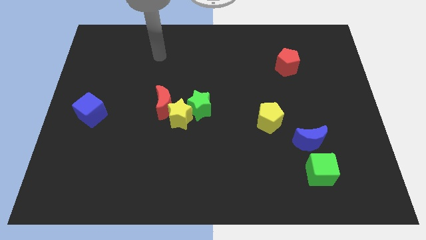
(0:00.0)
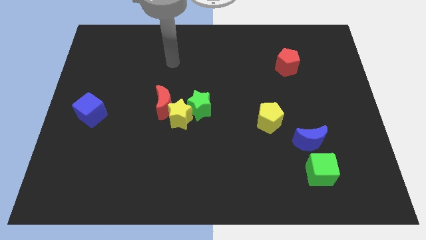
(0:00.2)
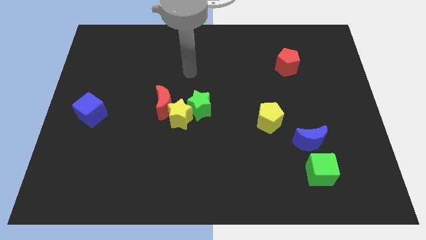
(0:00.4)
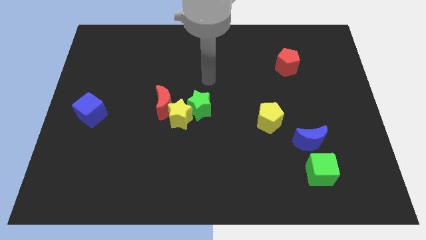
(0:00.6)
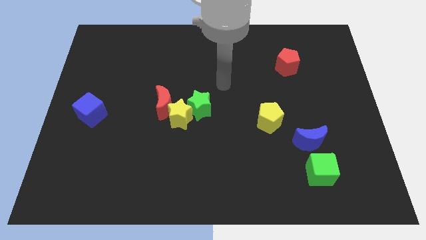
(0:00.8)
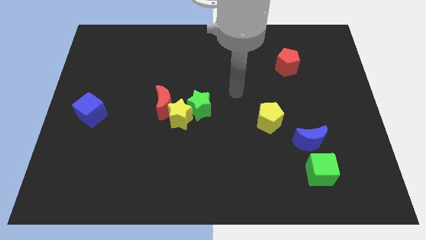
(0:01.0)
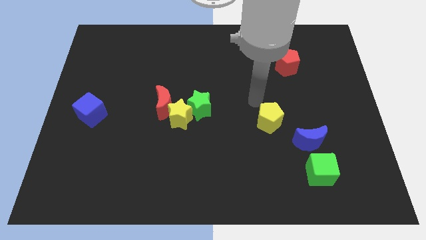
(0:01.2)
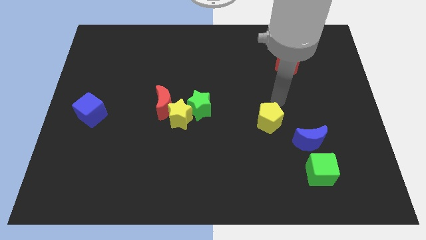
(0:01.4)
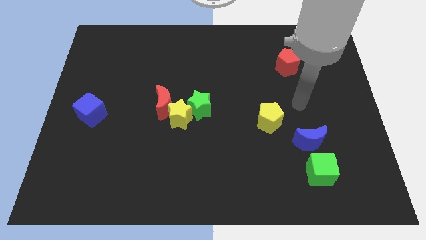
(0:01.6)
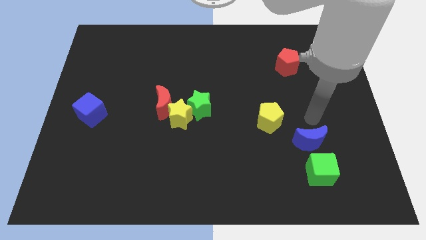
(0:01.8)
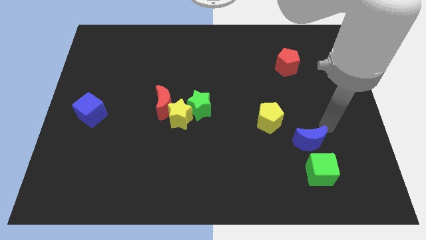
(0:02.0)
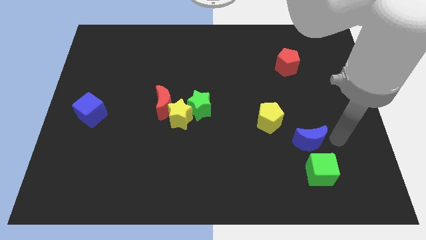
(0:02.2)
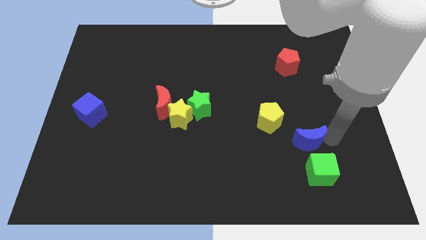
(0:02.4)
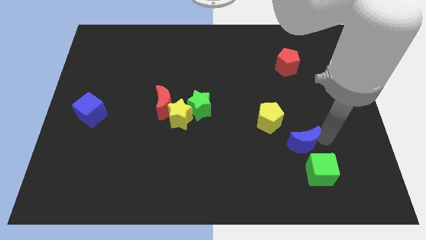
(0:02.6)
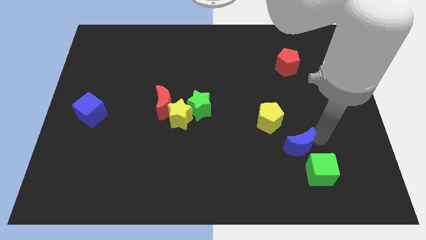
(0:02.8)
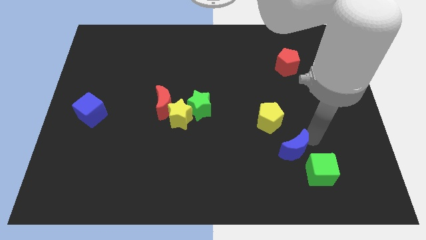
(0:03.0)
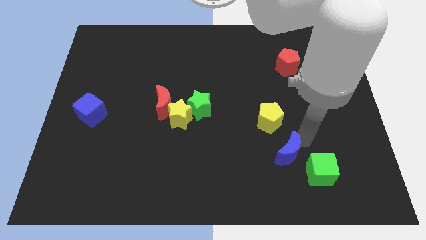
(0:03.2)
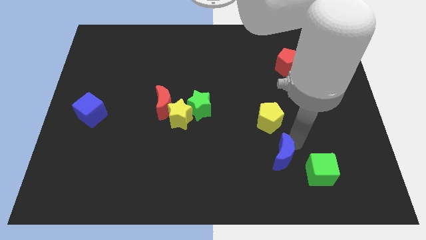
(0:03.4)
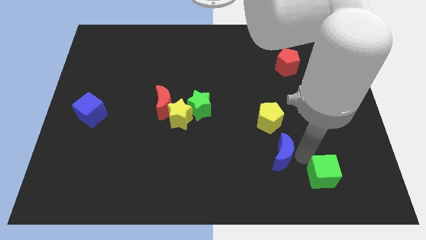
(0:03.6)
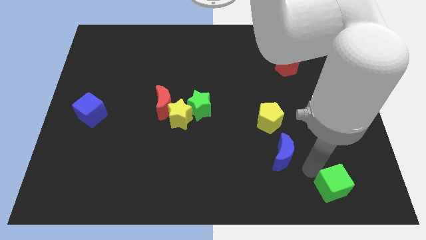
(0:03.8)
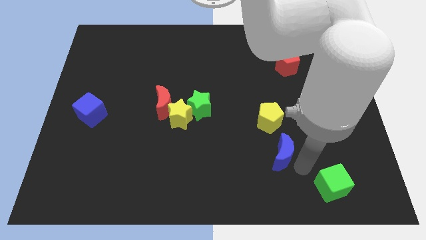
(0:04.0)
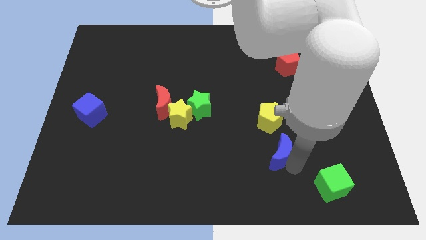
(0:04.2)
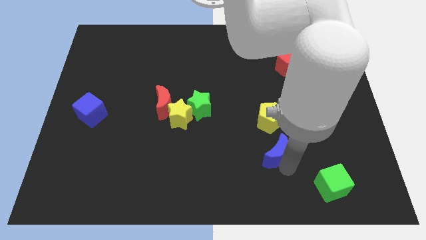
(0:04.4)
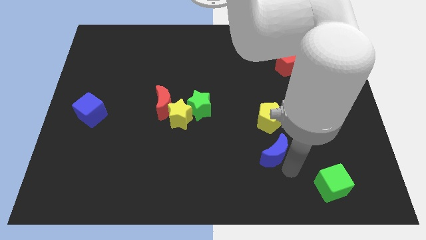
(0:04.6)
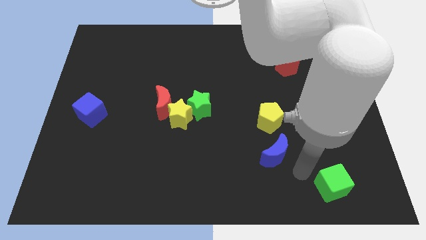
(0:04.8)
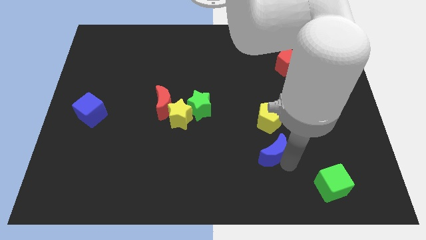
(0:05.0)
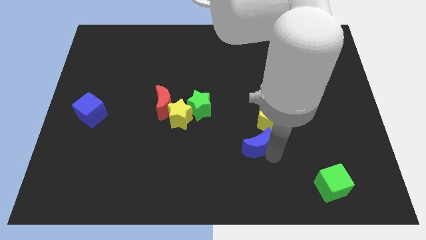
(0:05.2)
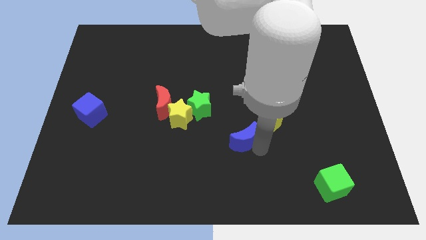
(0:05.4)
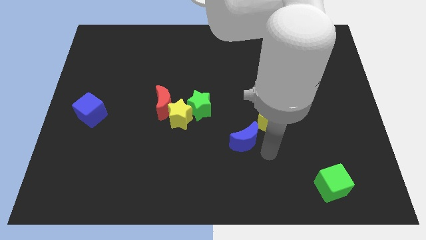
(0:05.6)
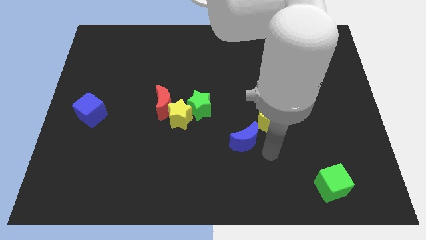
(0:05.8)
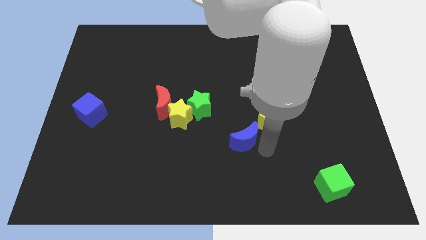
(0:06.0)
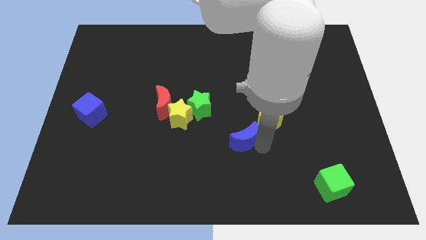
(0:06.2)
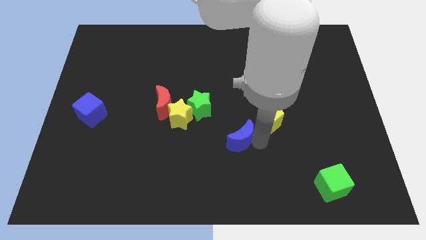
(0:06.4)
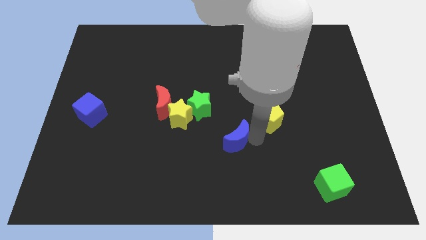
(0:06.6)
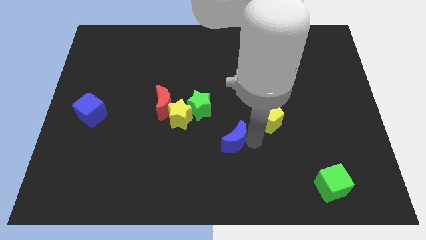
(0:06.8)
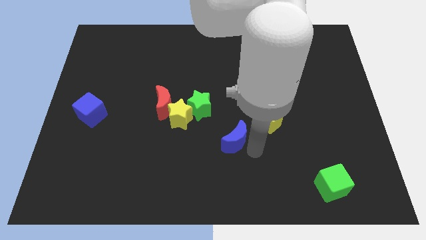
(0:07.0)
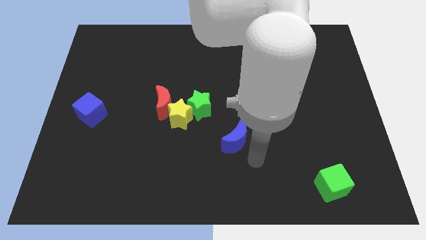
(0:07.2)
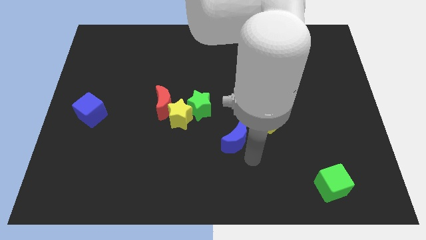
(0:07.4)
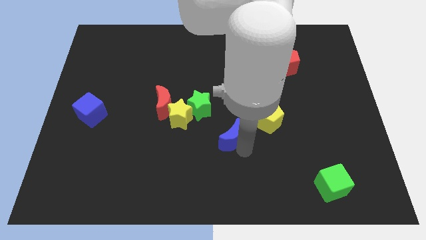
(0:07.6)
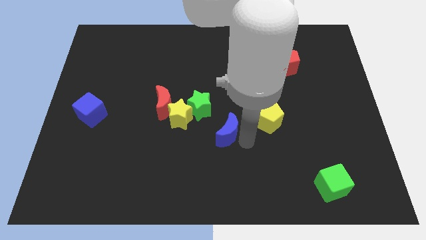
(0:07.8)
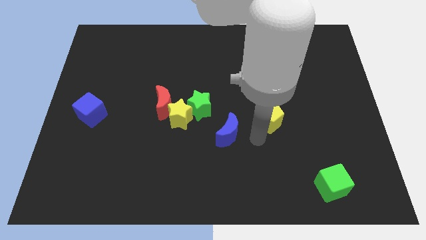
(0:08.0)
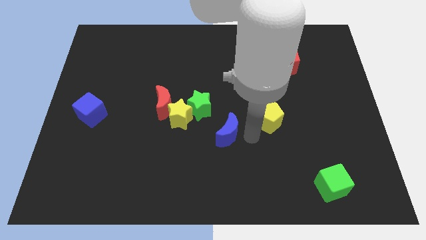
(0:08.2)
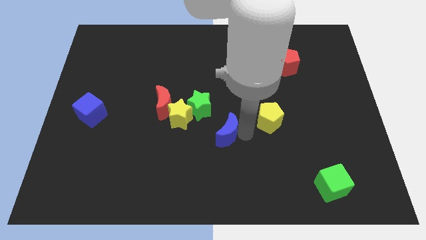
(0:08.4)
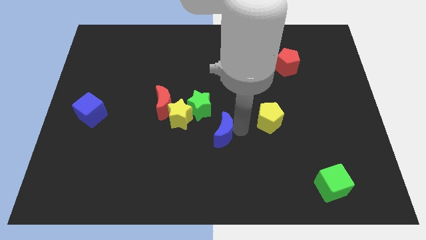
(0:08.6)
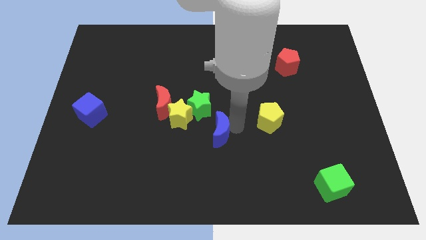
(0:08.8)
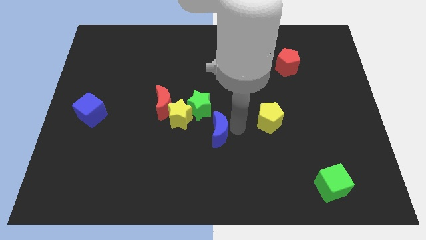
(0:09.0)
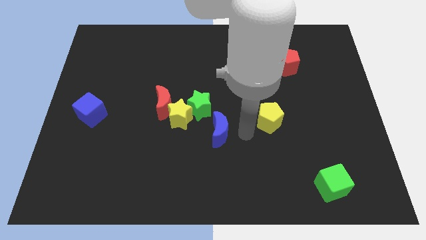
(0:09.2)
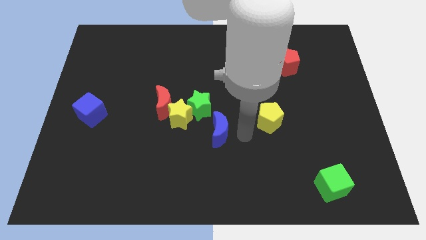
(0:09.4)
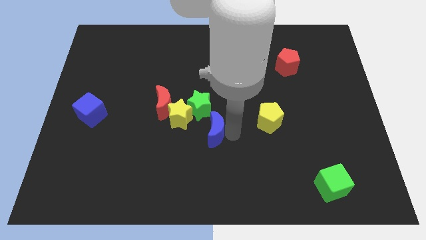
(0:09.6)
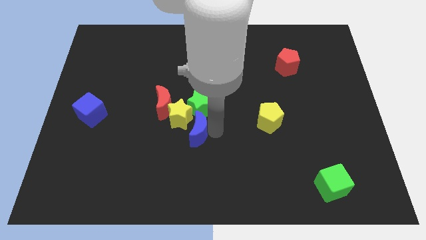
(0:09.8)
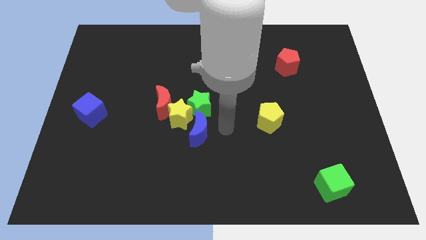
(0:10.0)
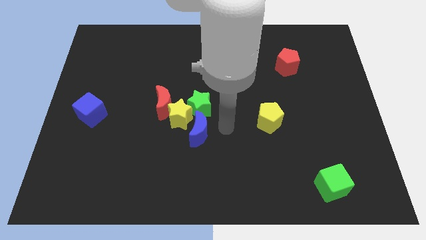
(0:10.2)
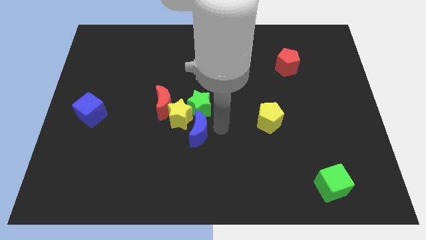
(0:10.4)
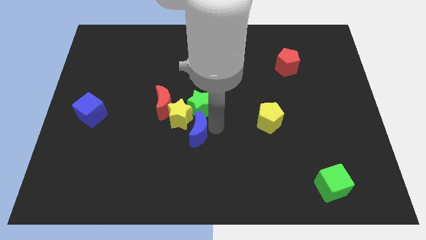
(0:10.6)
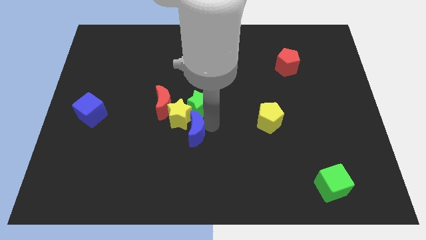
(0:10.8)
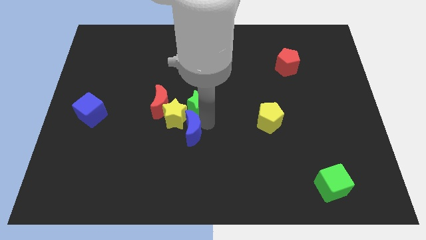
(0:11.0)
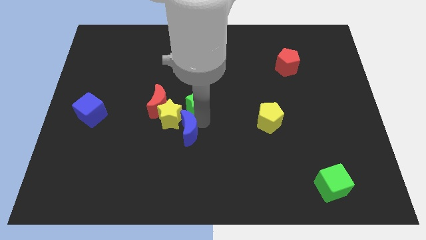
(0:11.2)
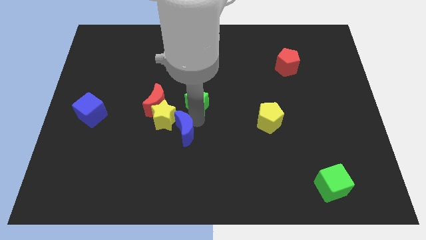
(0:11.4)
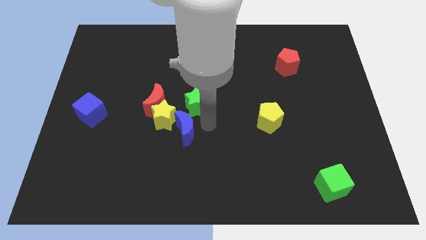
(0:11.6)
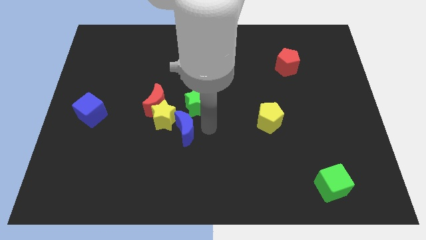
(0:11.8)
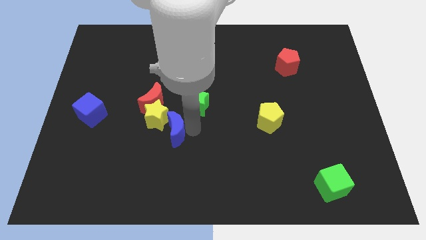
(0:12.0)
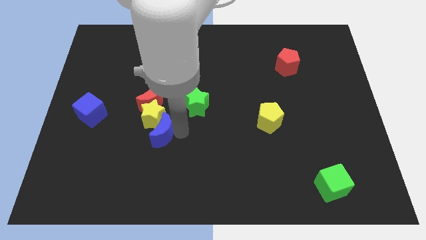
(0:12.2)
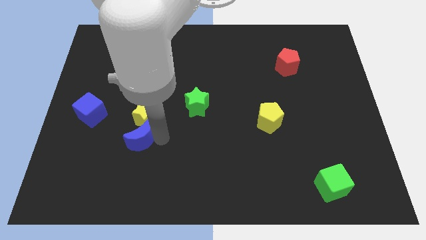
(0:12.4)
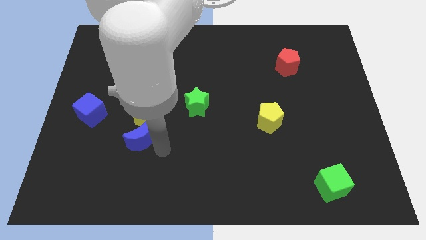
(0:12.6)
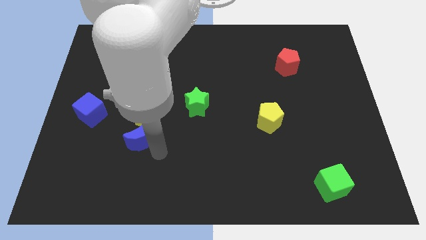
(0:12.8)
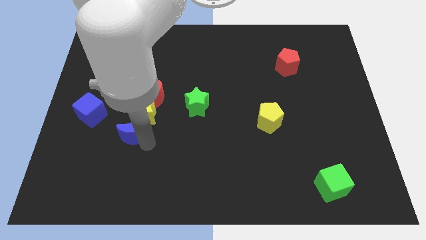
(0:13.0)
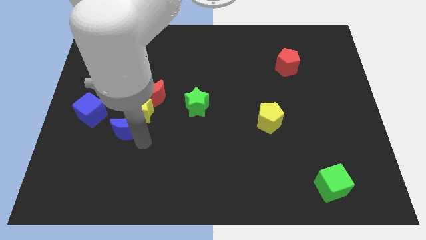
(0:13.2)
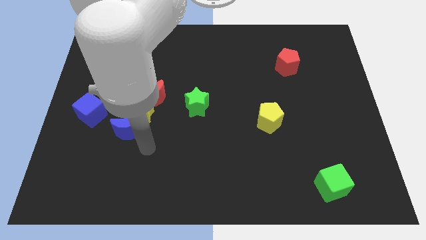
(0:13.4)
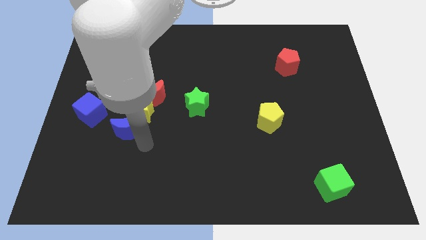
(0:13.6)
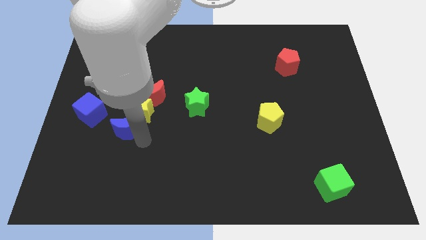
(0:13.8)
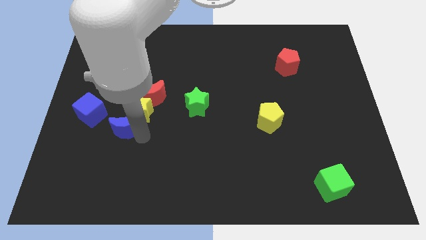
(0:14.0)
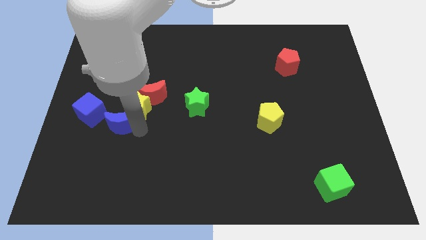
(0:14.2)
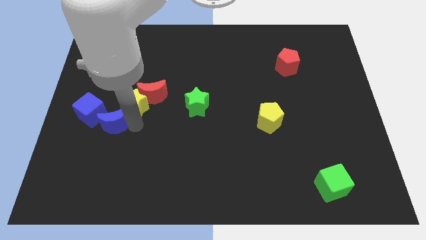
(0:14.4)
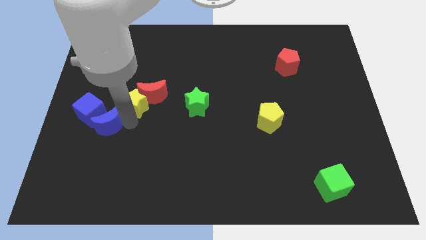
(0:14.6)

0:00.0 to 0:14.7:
push the blue moon next to the blue cube

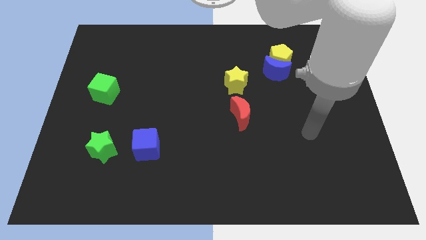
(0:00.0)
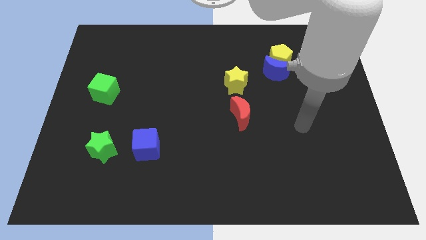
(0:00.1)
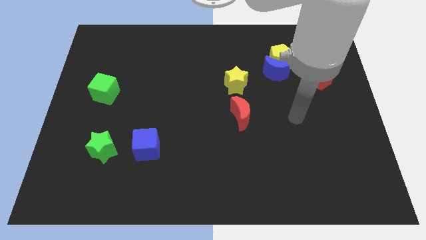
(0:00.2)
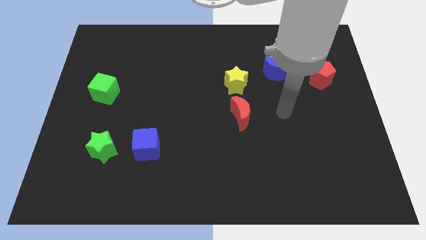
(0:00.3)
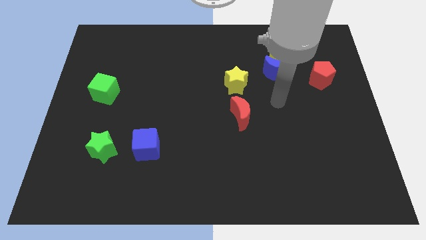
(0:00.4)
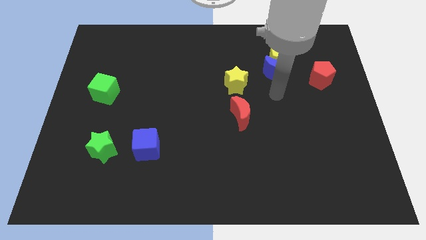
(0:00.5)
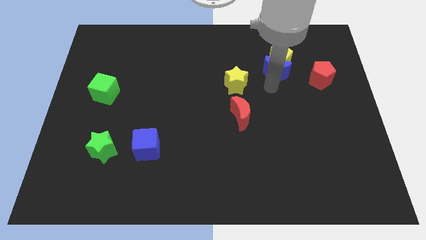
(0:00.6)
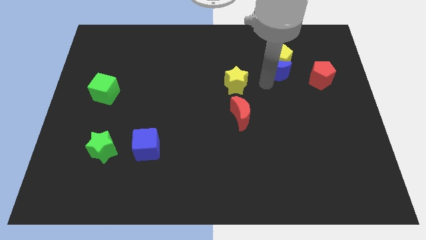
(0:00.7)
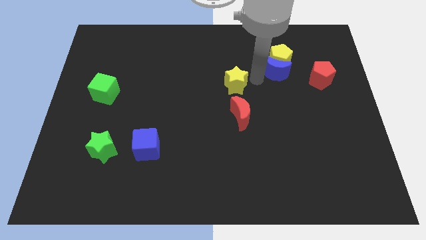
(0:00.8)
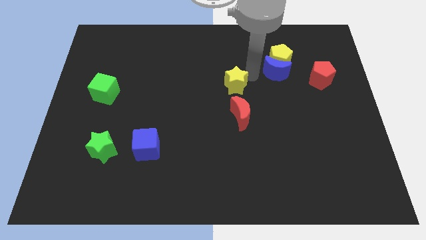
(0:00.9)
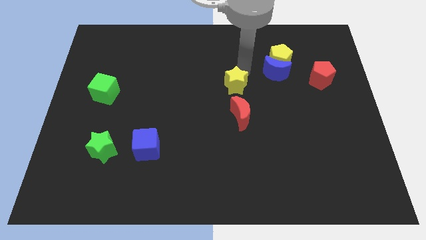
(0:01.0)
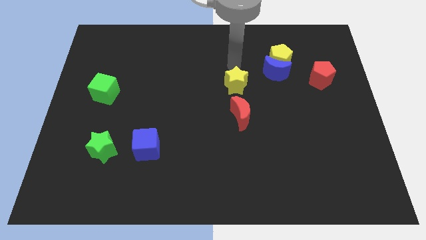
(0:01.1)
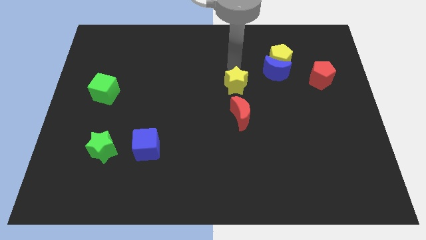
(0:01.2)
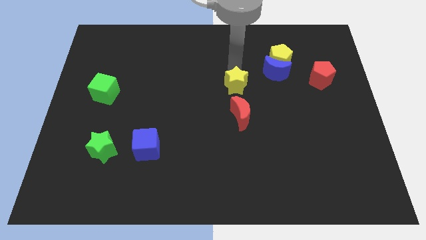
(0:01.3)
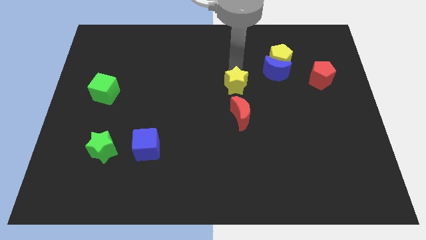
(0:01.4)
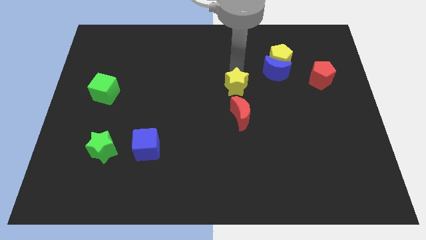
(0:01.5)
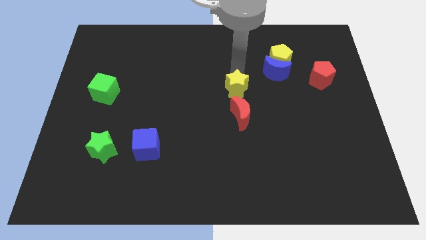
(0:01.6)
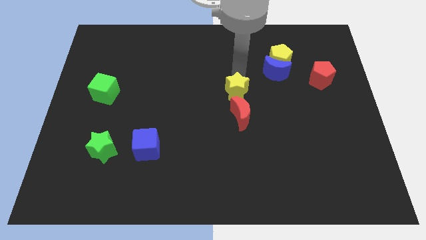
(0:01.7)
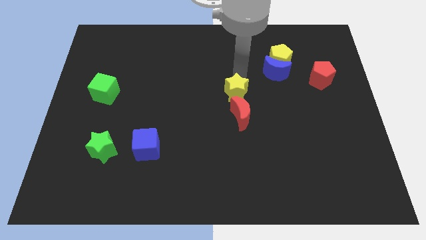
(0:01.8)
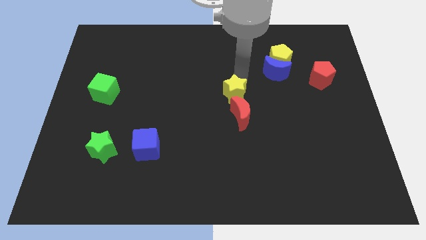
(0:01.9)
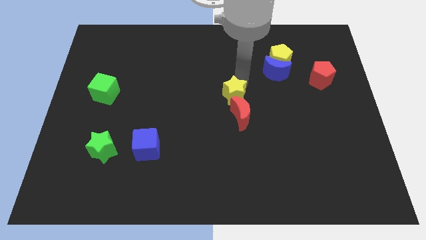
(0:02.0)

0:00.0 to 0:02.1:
put the yellow star towards the red moon
